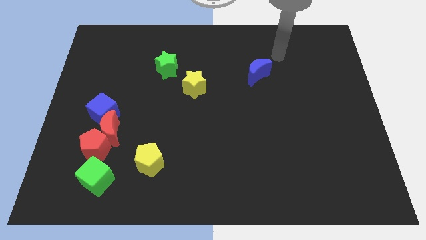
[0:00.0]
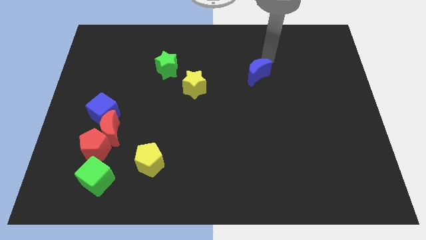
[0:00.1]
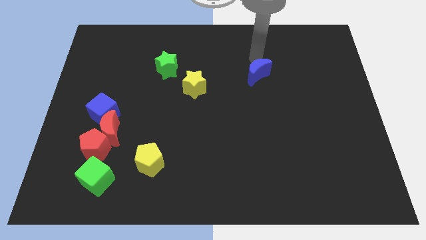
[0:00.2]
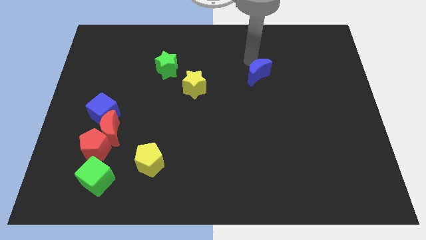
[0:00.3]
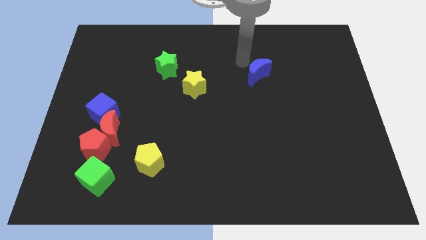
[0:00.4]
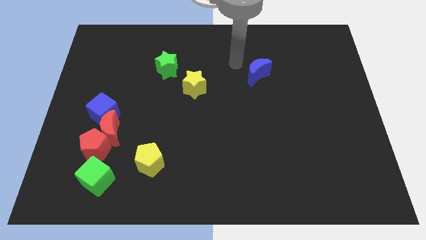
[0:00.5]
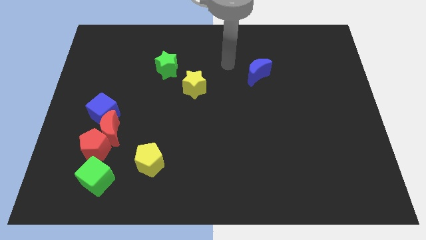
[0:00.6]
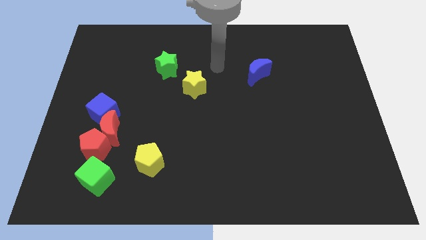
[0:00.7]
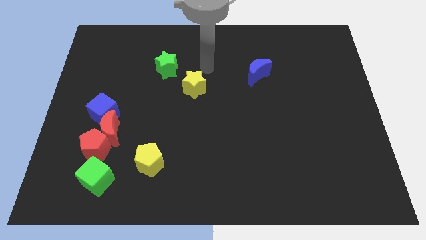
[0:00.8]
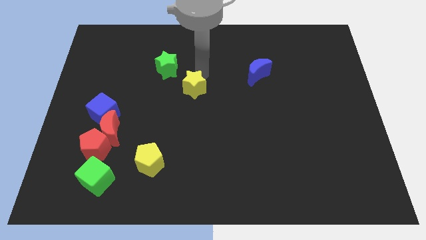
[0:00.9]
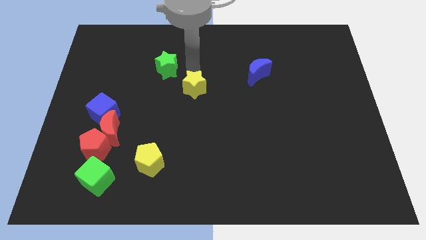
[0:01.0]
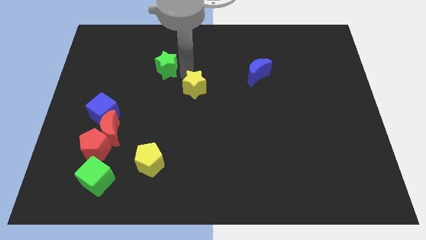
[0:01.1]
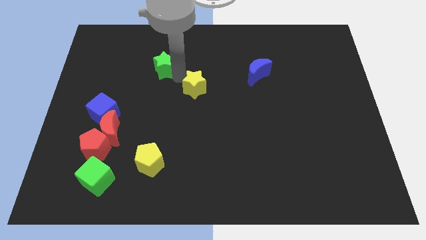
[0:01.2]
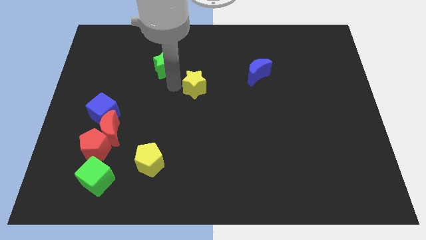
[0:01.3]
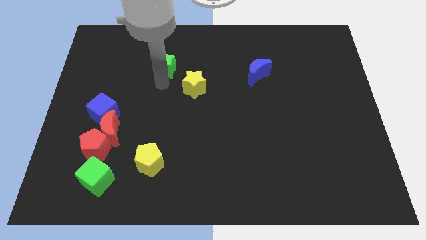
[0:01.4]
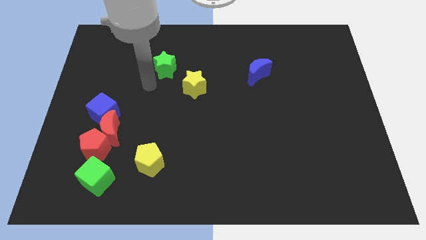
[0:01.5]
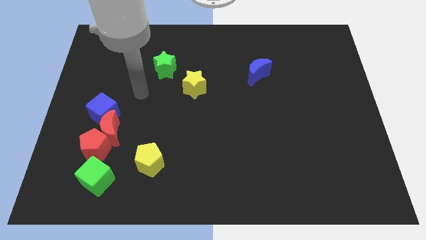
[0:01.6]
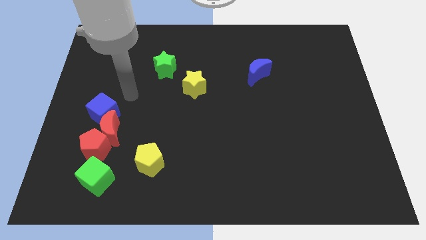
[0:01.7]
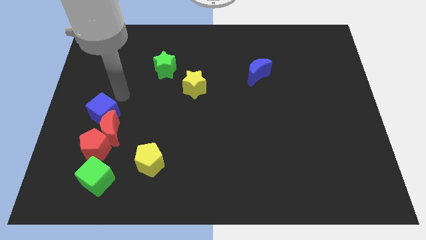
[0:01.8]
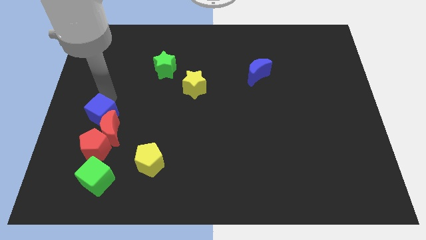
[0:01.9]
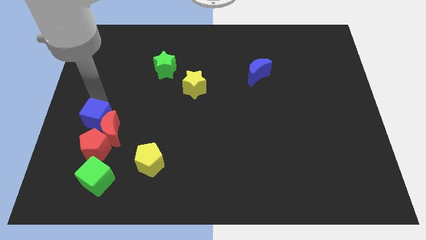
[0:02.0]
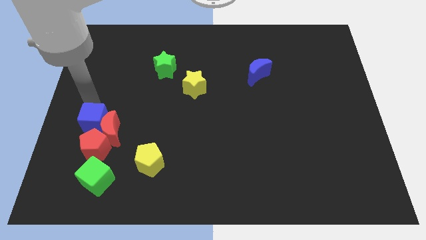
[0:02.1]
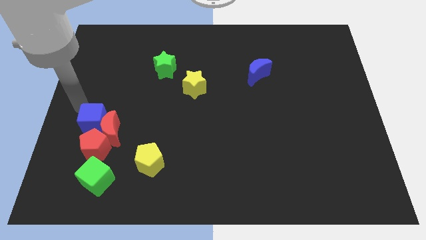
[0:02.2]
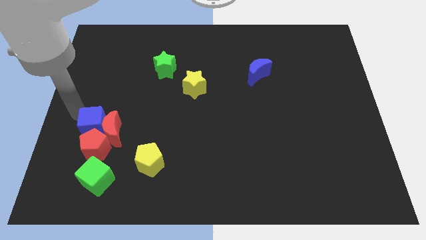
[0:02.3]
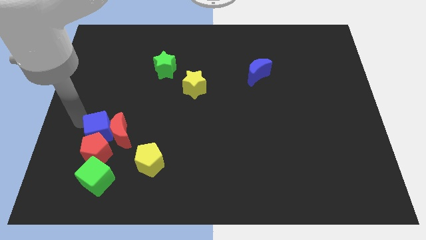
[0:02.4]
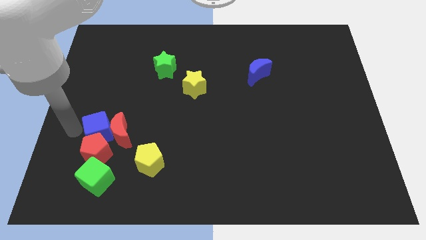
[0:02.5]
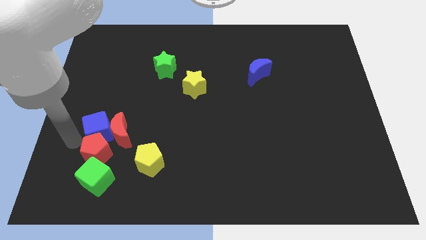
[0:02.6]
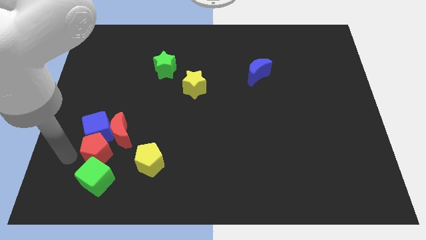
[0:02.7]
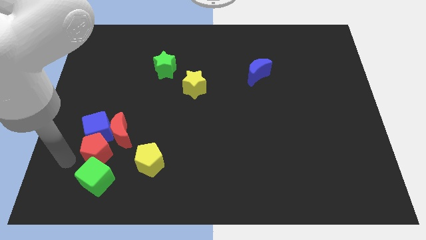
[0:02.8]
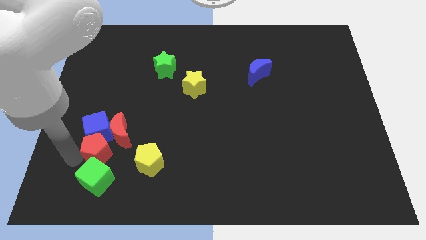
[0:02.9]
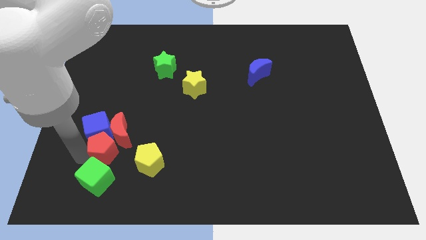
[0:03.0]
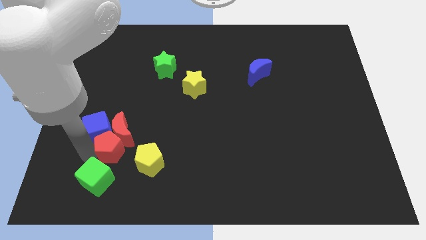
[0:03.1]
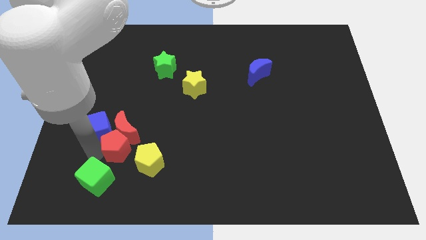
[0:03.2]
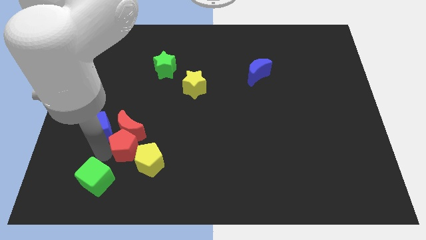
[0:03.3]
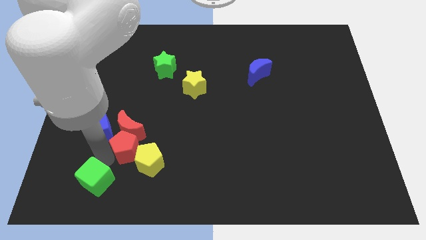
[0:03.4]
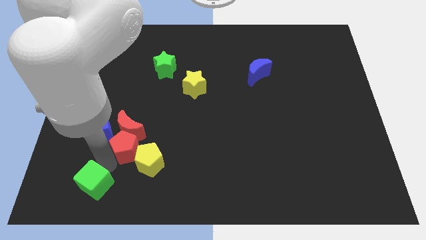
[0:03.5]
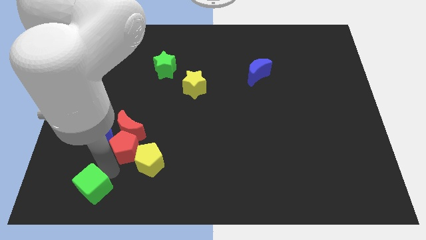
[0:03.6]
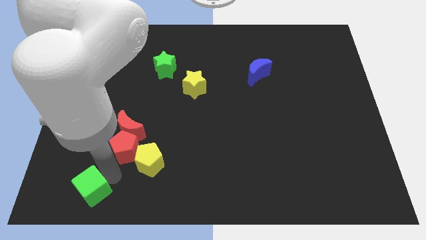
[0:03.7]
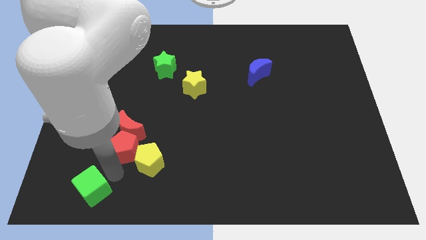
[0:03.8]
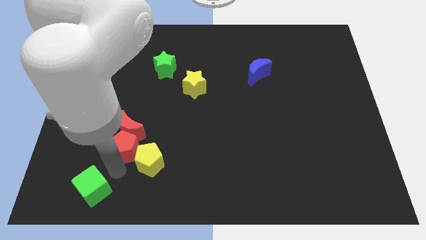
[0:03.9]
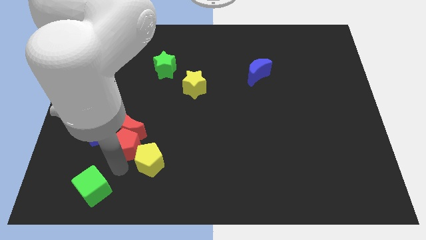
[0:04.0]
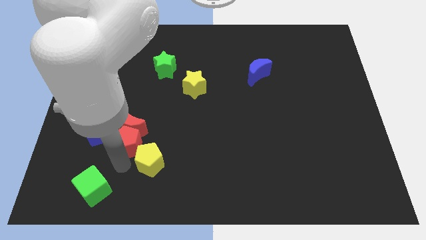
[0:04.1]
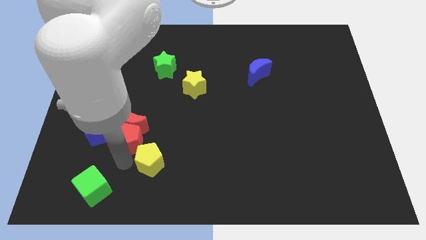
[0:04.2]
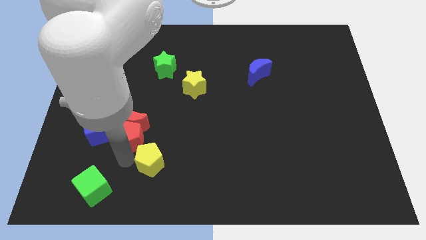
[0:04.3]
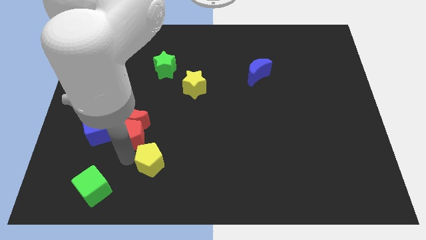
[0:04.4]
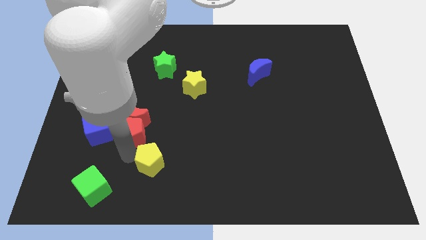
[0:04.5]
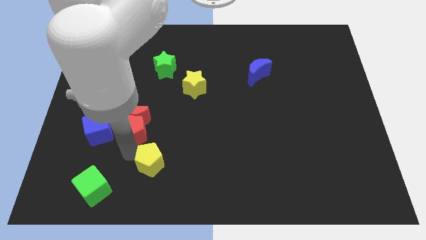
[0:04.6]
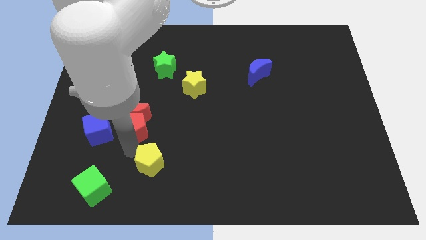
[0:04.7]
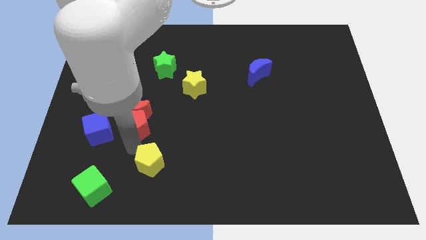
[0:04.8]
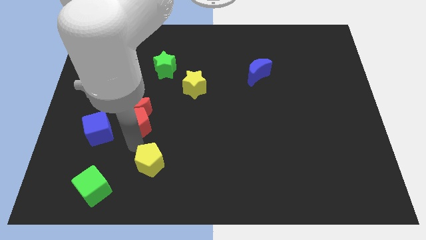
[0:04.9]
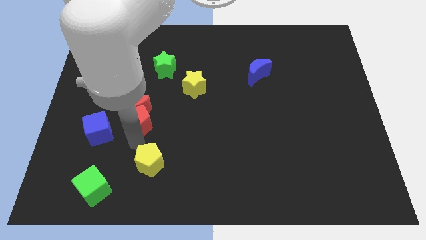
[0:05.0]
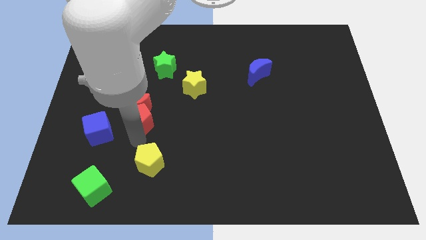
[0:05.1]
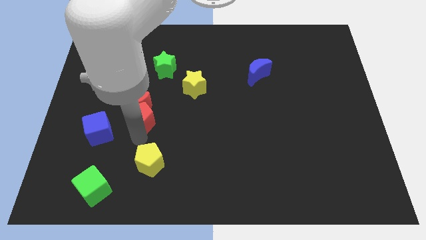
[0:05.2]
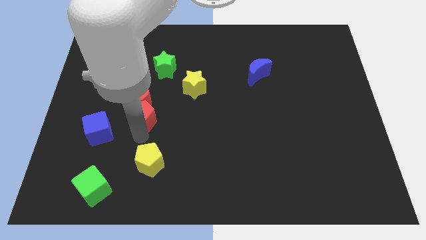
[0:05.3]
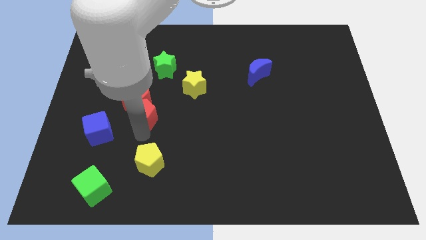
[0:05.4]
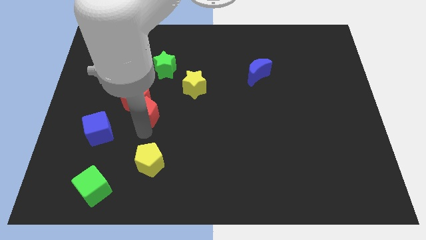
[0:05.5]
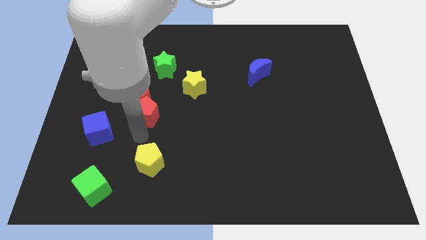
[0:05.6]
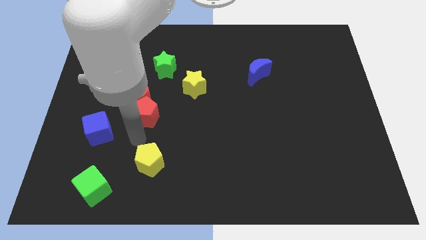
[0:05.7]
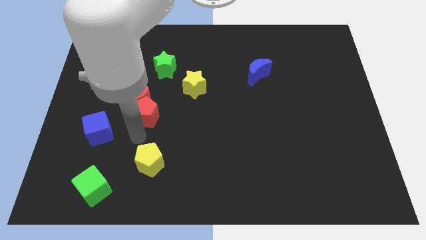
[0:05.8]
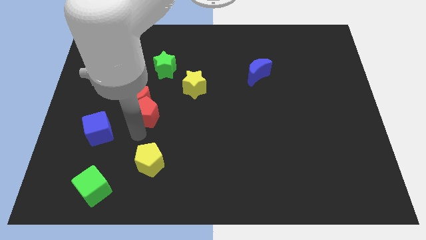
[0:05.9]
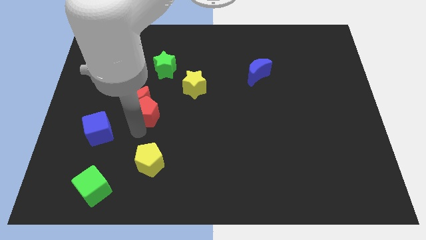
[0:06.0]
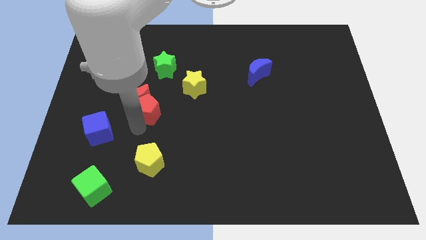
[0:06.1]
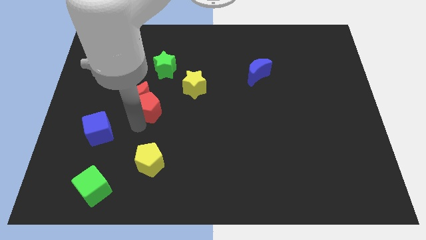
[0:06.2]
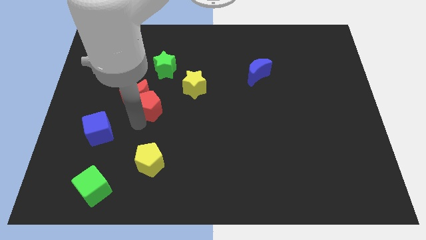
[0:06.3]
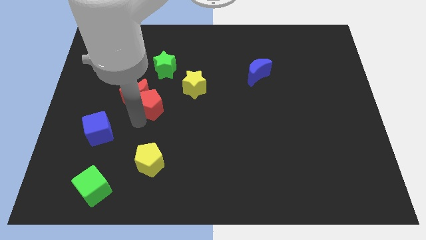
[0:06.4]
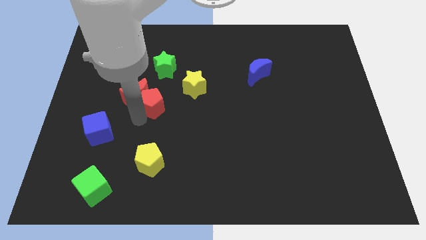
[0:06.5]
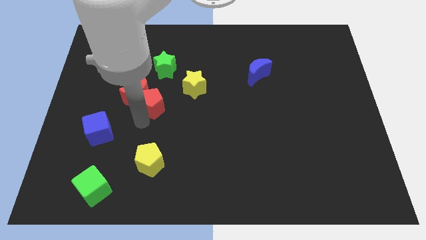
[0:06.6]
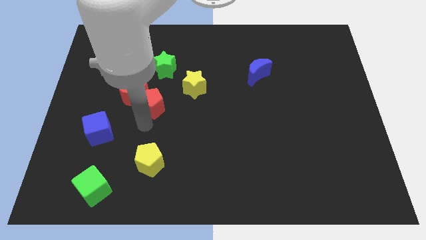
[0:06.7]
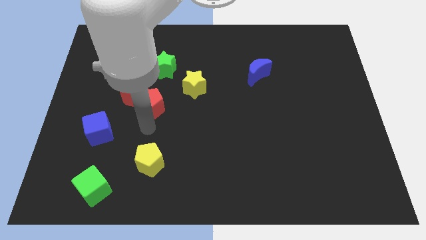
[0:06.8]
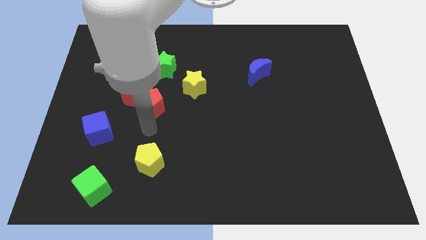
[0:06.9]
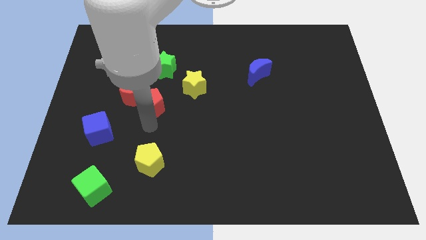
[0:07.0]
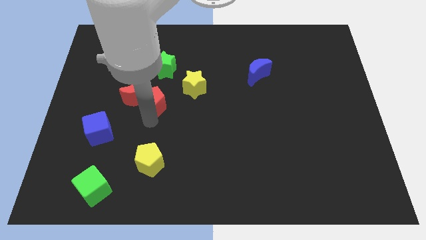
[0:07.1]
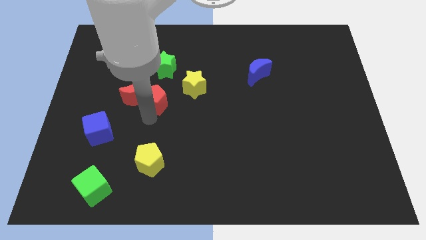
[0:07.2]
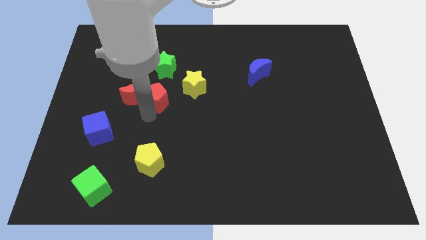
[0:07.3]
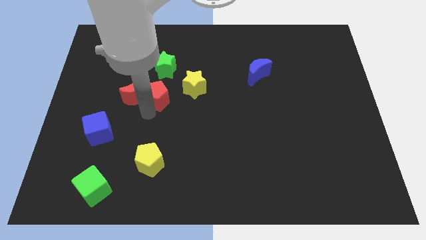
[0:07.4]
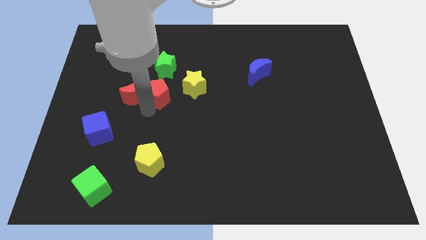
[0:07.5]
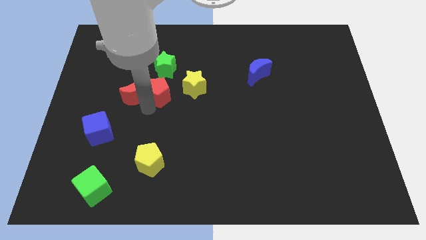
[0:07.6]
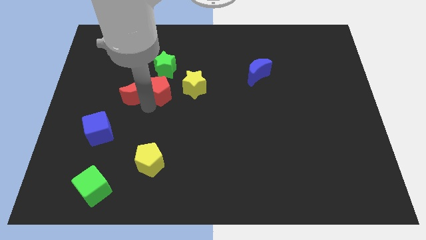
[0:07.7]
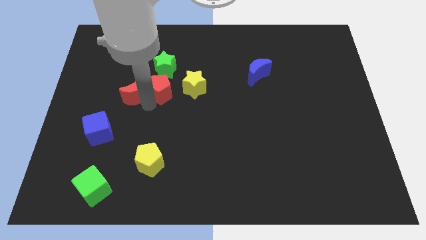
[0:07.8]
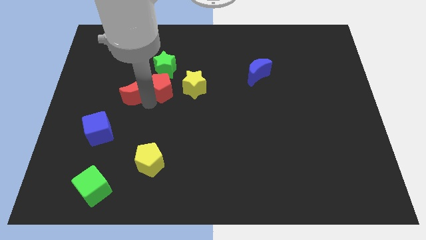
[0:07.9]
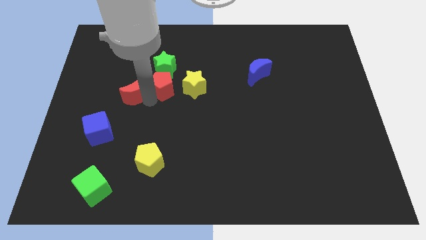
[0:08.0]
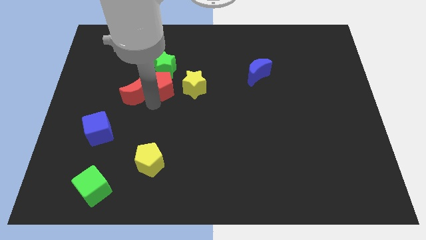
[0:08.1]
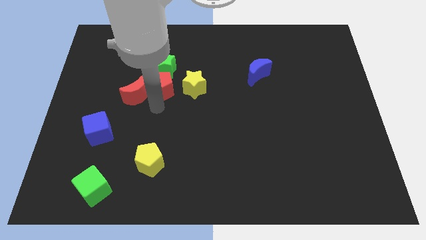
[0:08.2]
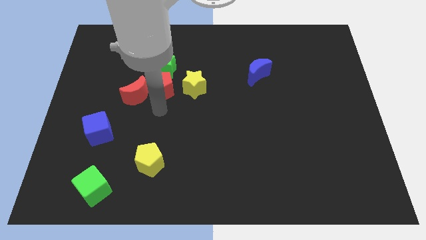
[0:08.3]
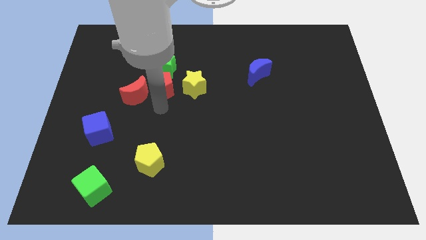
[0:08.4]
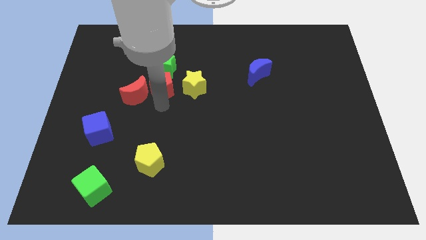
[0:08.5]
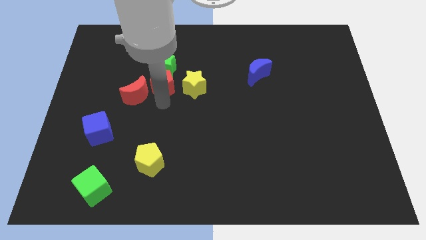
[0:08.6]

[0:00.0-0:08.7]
push the red pentagon close to the green star
